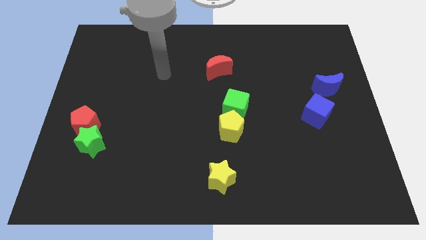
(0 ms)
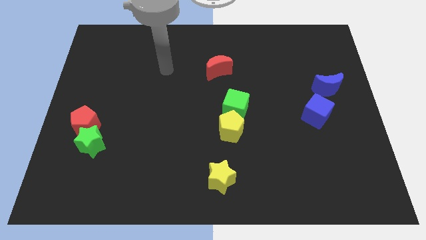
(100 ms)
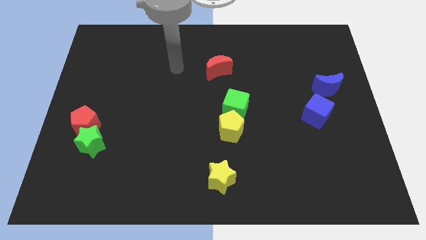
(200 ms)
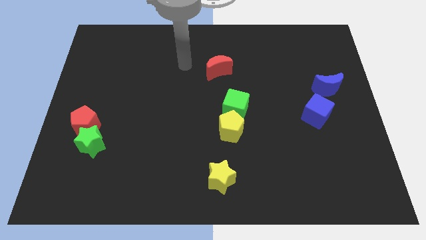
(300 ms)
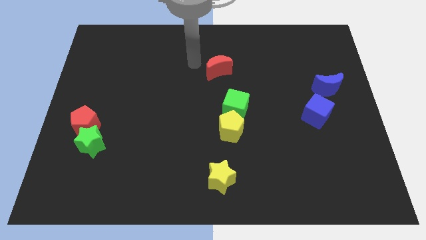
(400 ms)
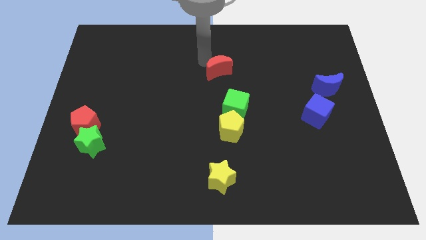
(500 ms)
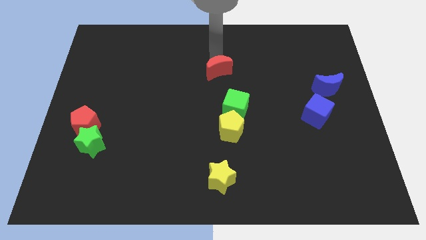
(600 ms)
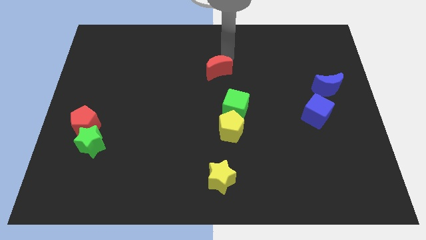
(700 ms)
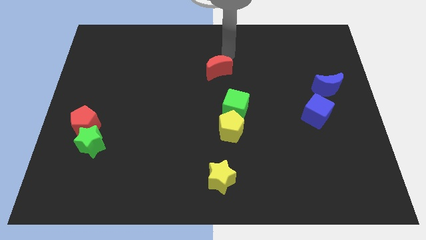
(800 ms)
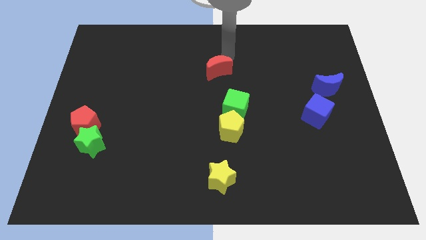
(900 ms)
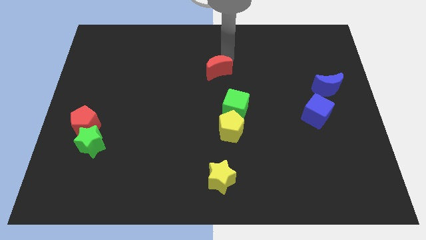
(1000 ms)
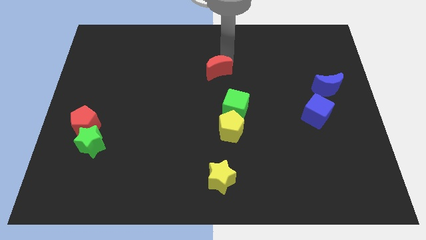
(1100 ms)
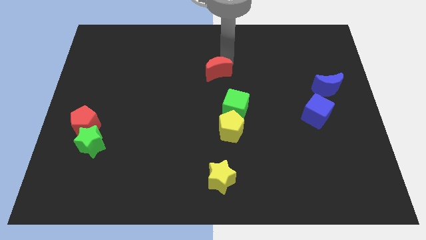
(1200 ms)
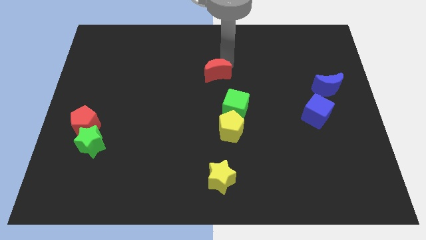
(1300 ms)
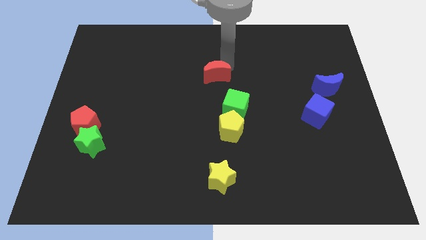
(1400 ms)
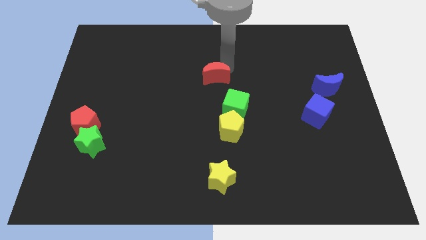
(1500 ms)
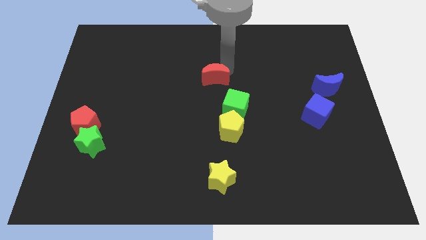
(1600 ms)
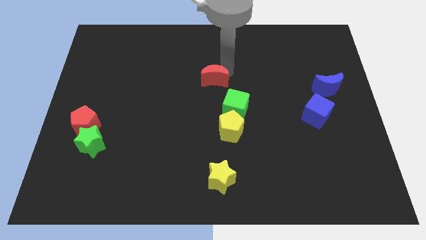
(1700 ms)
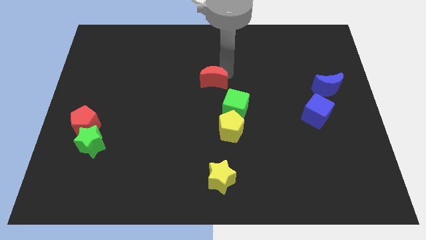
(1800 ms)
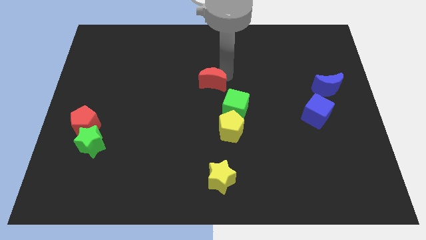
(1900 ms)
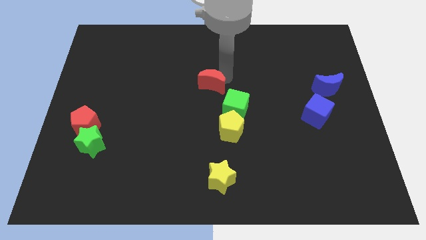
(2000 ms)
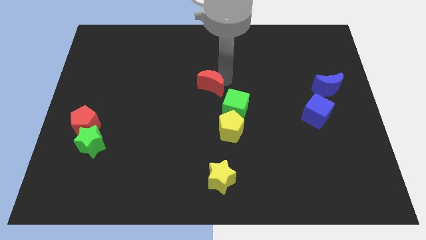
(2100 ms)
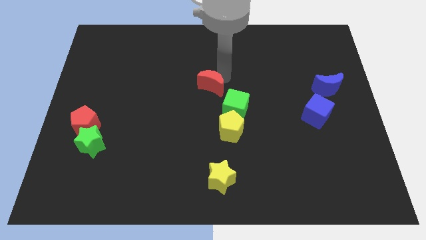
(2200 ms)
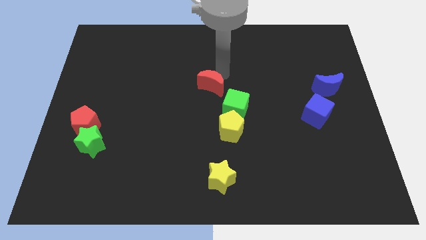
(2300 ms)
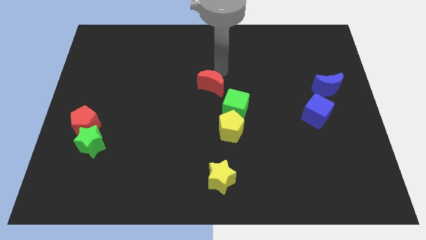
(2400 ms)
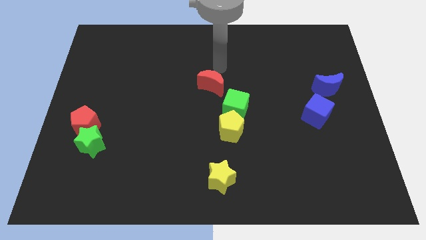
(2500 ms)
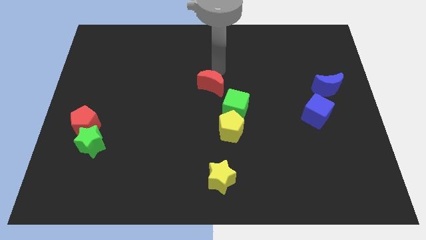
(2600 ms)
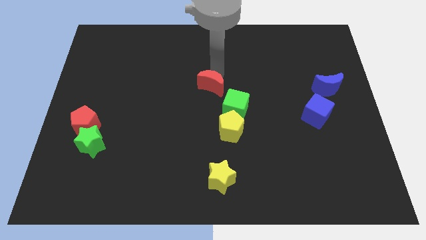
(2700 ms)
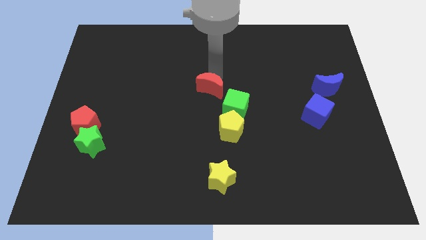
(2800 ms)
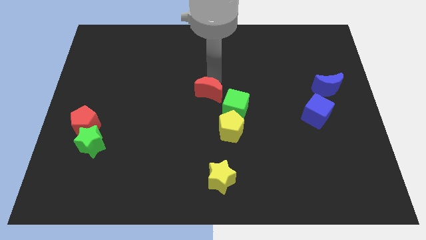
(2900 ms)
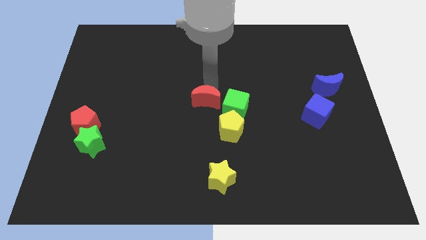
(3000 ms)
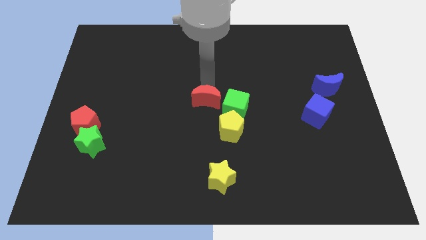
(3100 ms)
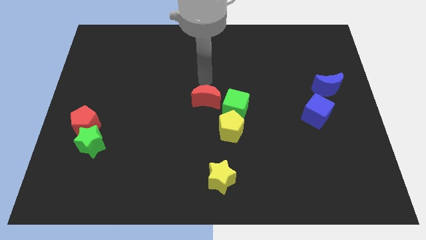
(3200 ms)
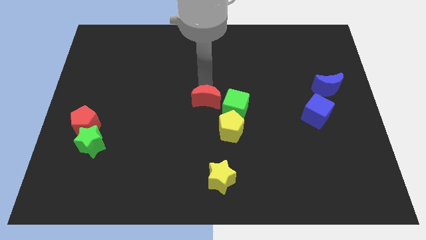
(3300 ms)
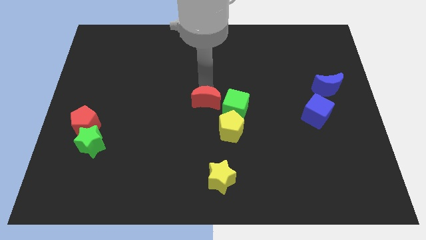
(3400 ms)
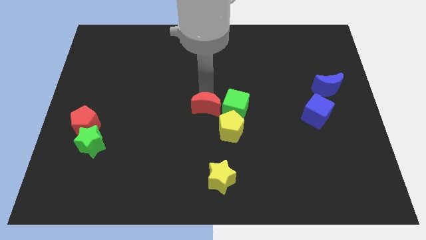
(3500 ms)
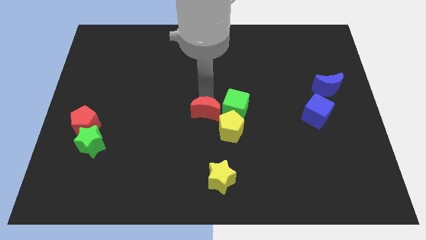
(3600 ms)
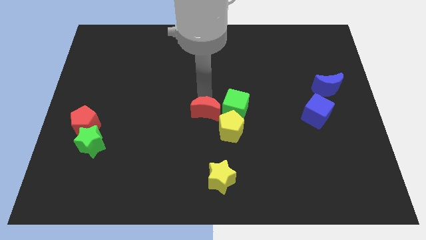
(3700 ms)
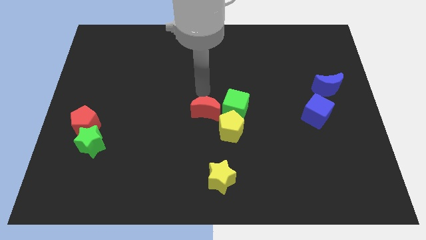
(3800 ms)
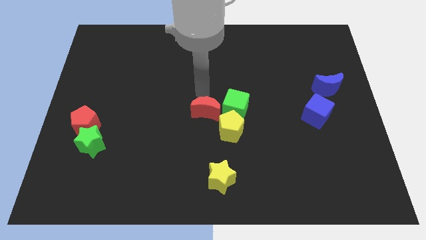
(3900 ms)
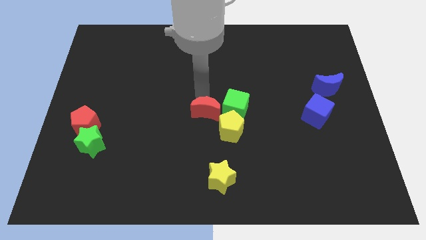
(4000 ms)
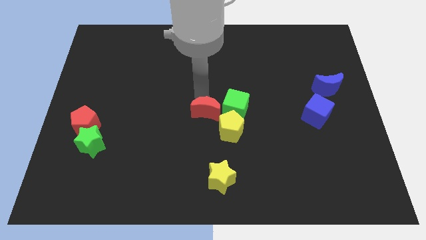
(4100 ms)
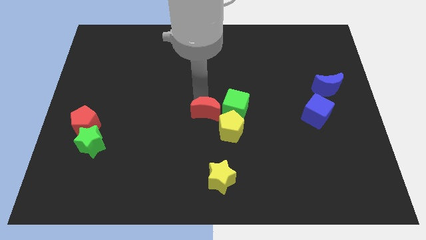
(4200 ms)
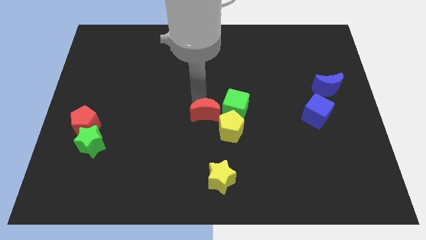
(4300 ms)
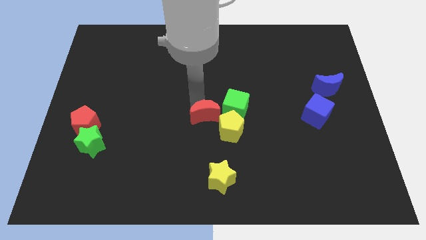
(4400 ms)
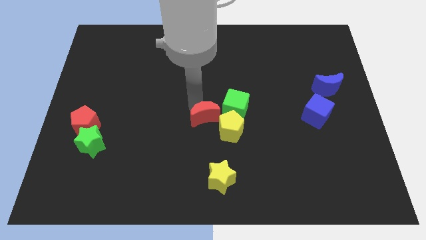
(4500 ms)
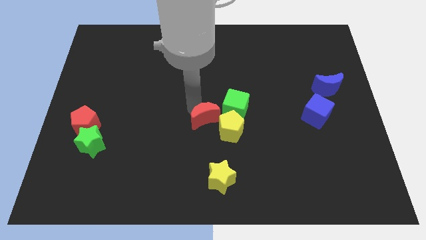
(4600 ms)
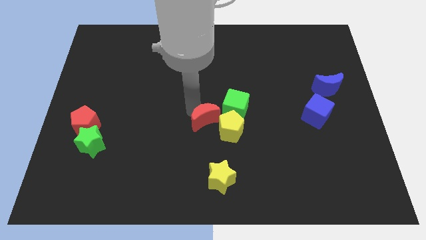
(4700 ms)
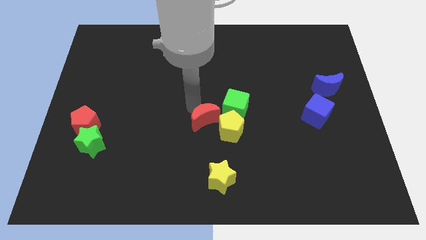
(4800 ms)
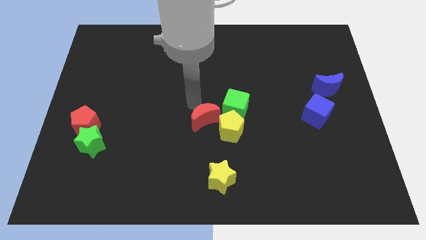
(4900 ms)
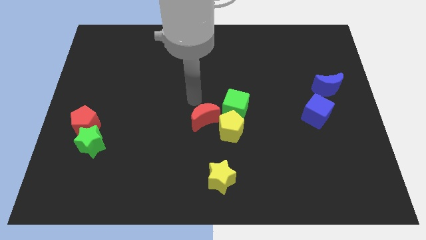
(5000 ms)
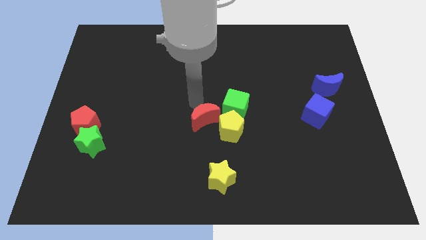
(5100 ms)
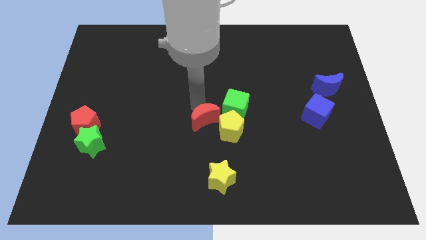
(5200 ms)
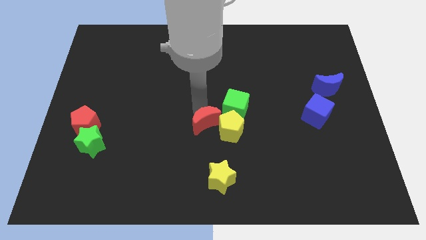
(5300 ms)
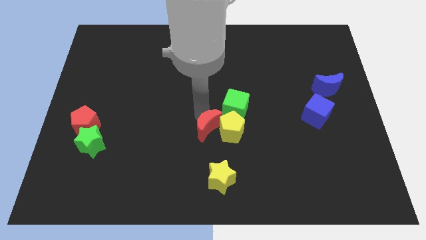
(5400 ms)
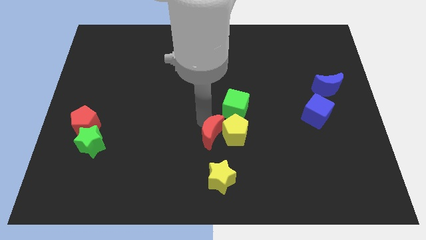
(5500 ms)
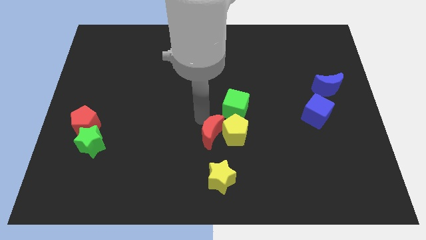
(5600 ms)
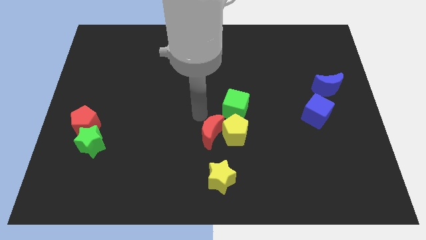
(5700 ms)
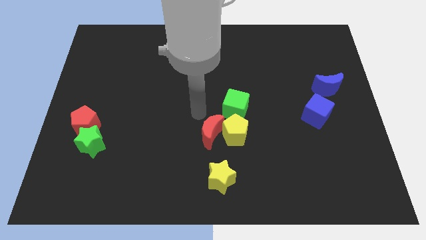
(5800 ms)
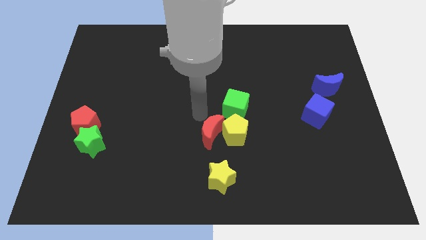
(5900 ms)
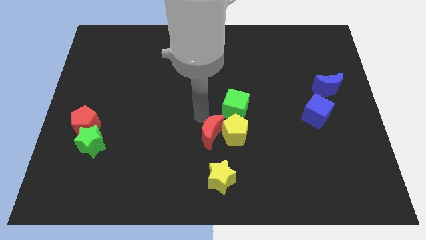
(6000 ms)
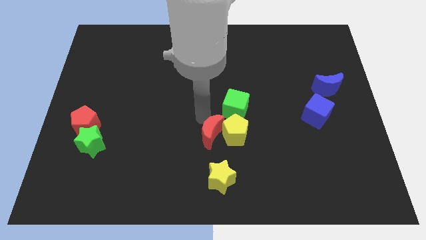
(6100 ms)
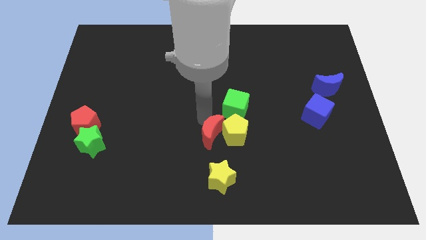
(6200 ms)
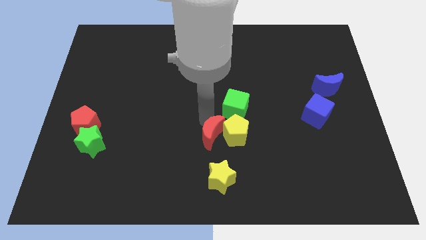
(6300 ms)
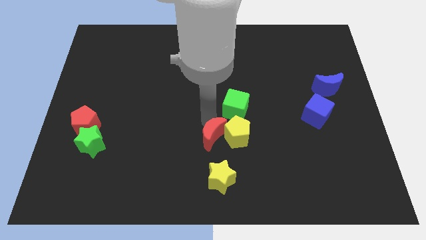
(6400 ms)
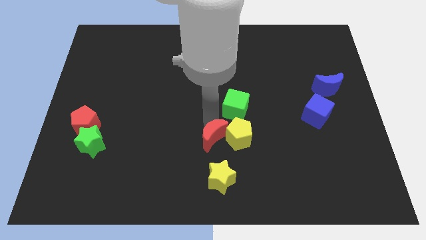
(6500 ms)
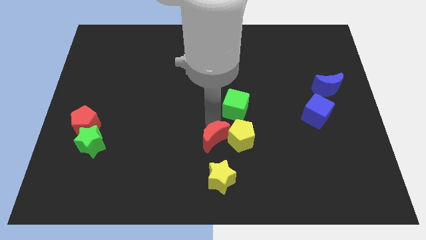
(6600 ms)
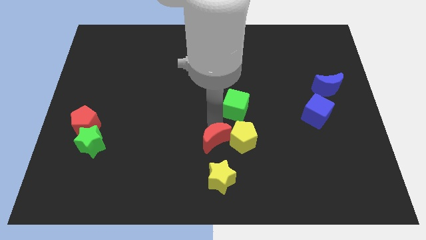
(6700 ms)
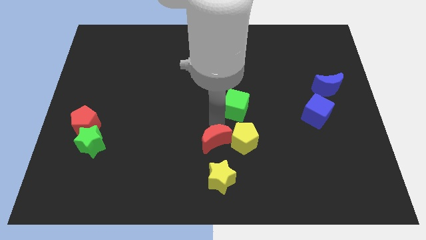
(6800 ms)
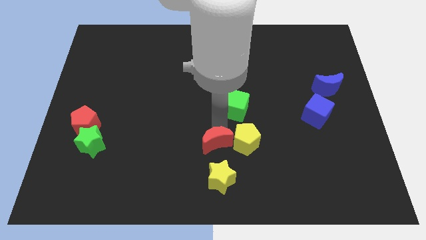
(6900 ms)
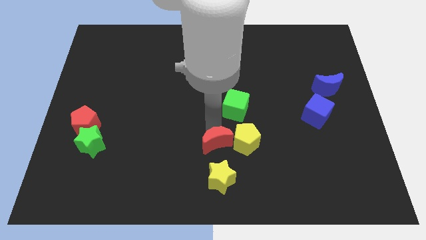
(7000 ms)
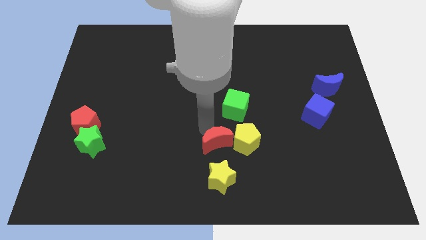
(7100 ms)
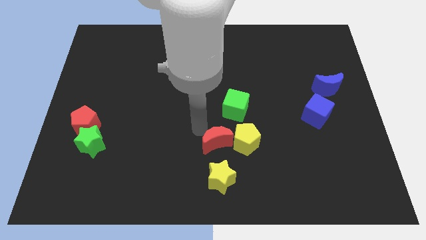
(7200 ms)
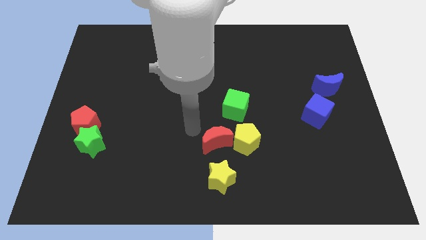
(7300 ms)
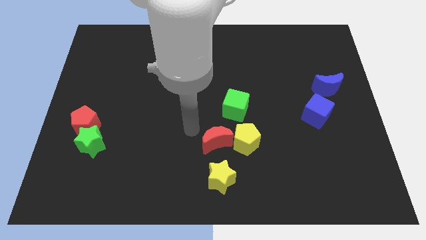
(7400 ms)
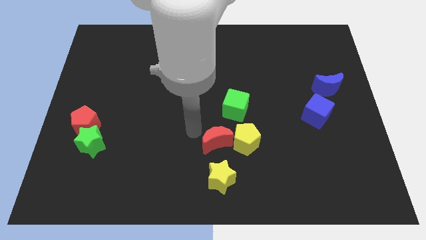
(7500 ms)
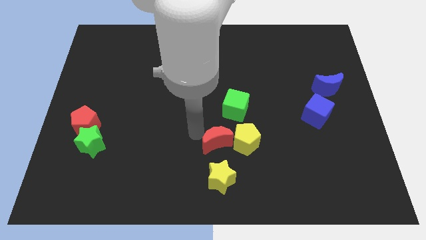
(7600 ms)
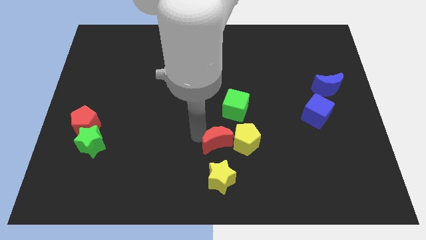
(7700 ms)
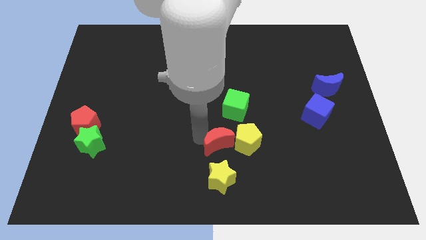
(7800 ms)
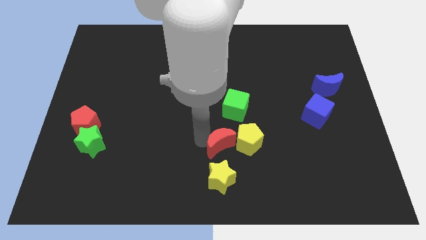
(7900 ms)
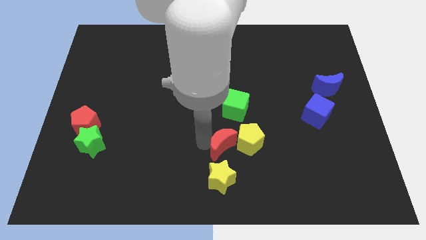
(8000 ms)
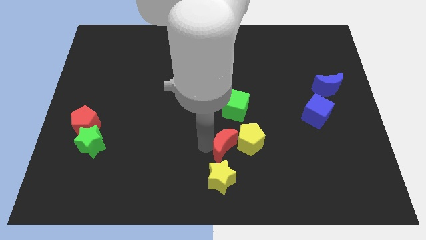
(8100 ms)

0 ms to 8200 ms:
slide the red moon diagonally up and to the right of the yellow star
